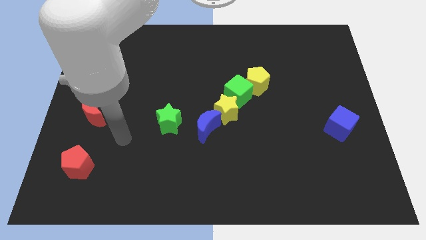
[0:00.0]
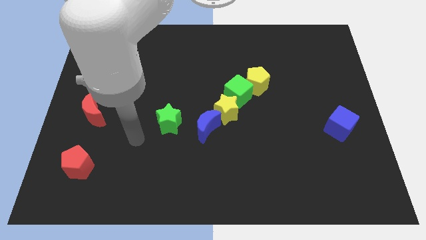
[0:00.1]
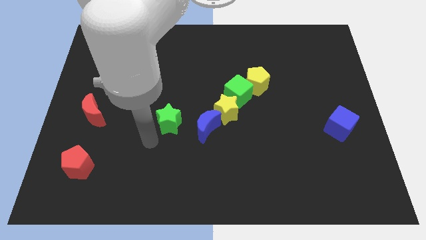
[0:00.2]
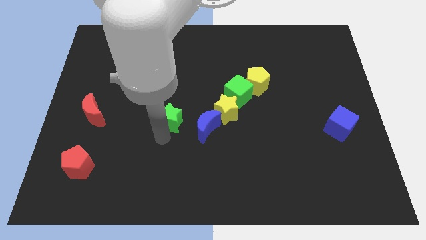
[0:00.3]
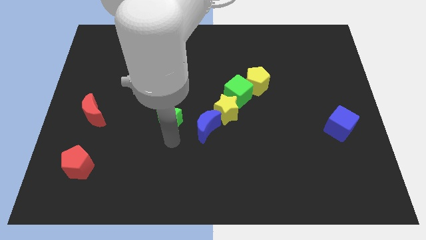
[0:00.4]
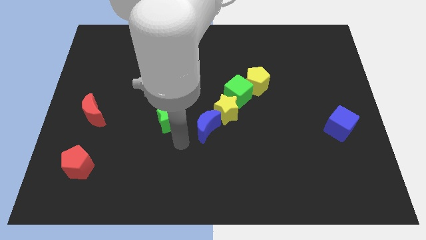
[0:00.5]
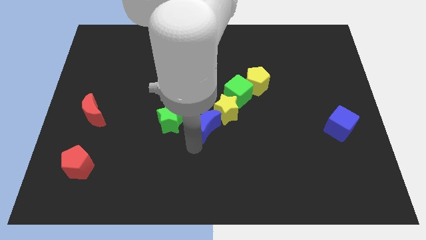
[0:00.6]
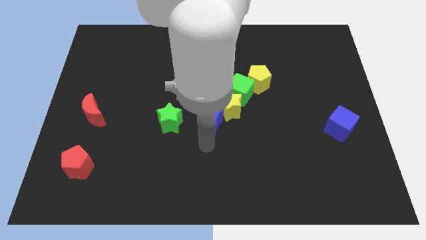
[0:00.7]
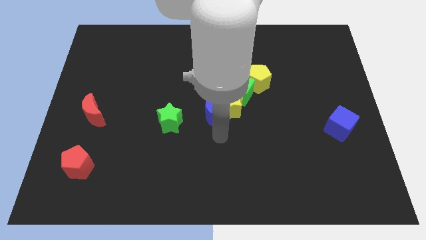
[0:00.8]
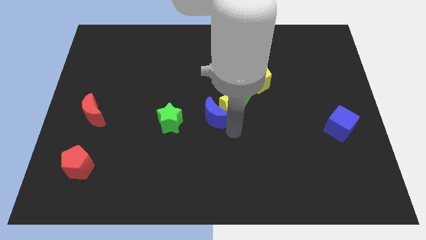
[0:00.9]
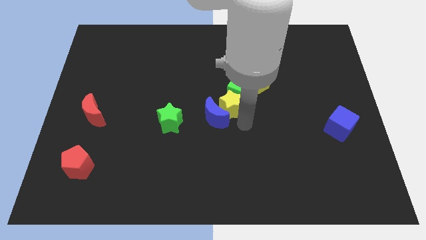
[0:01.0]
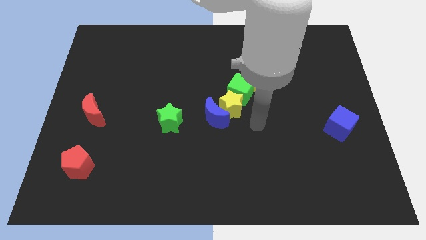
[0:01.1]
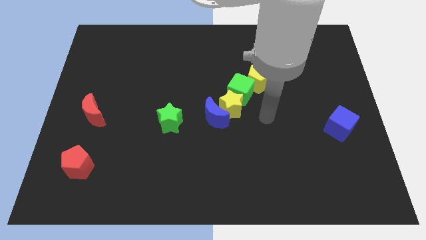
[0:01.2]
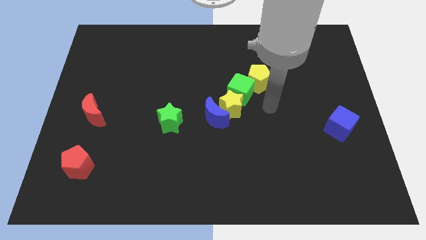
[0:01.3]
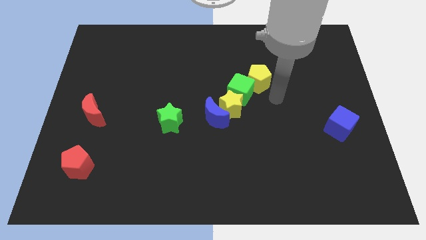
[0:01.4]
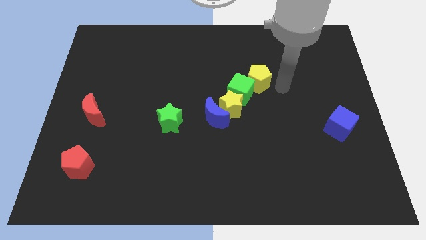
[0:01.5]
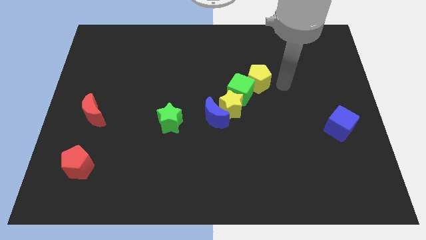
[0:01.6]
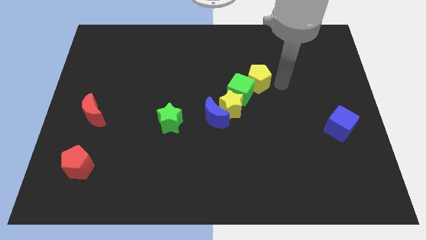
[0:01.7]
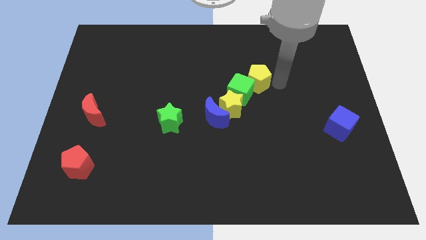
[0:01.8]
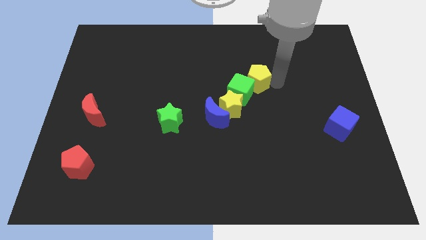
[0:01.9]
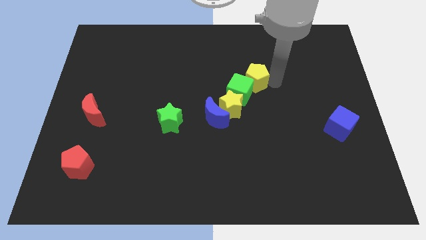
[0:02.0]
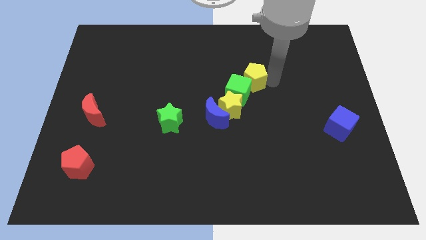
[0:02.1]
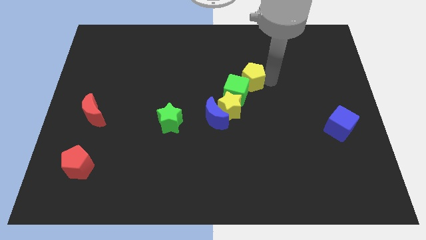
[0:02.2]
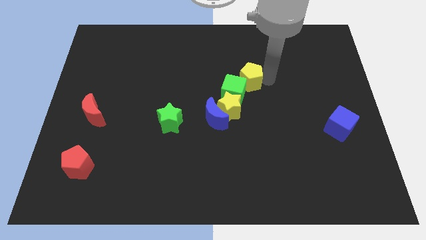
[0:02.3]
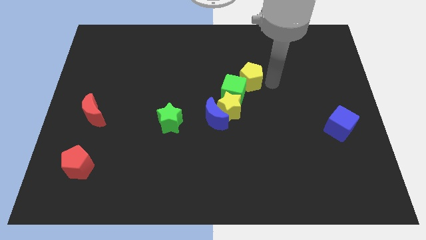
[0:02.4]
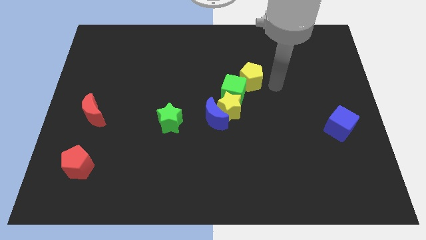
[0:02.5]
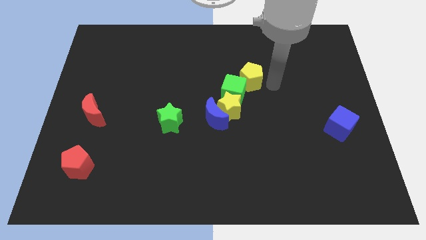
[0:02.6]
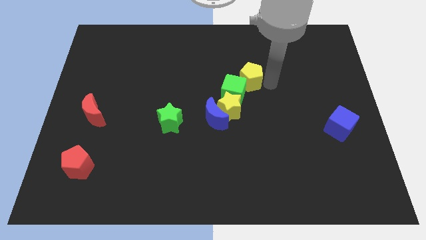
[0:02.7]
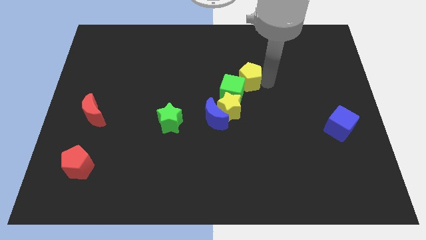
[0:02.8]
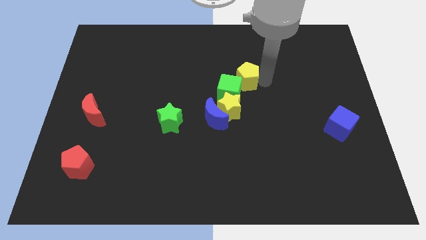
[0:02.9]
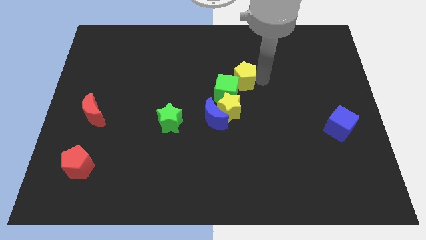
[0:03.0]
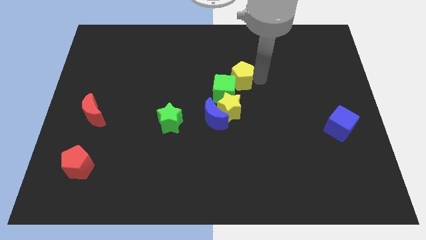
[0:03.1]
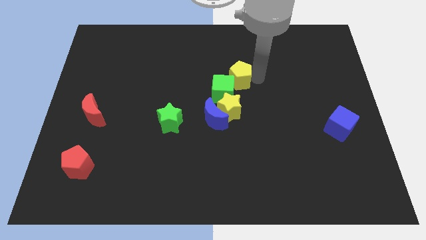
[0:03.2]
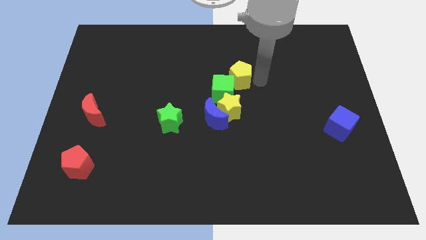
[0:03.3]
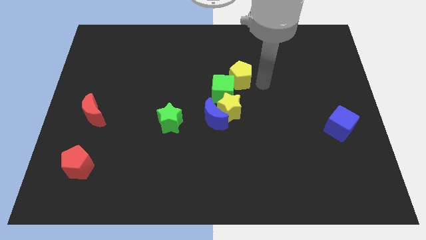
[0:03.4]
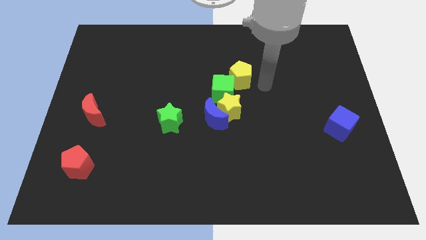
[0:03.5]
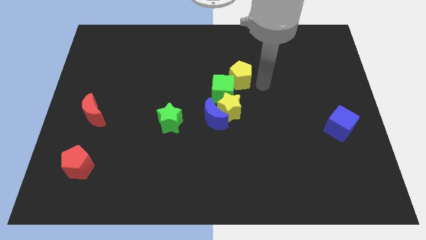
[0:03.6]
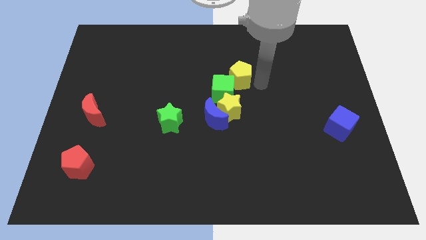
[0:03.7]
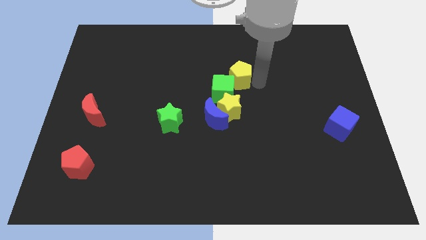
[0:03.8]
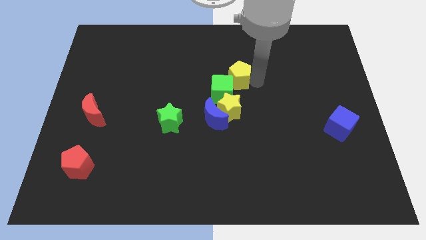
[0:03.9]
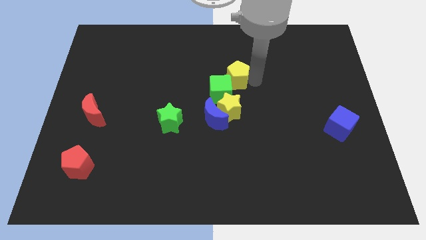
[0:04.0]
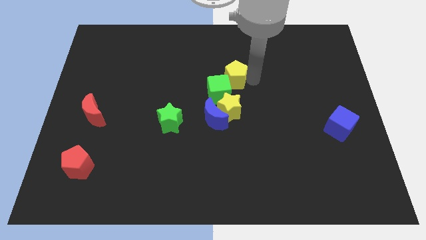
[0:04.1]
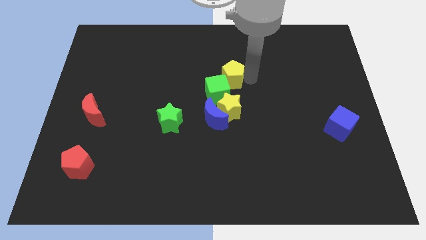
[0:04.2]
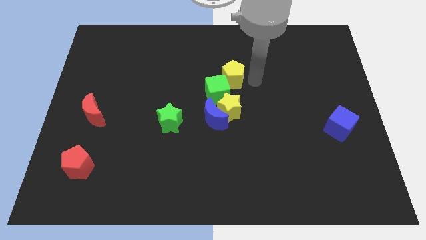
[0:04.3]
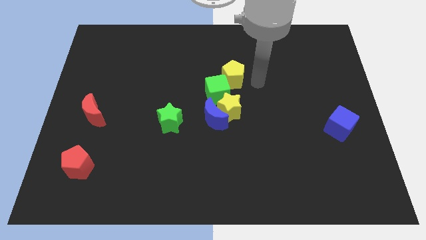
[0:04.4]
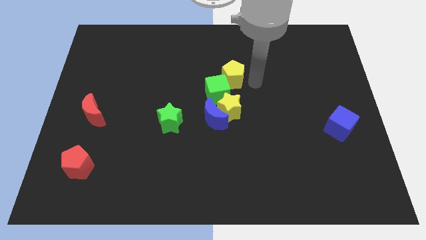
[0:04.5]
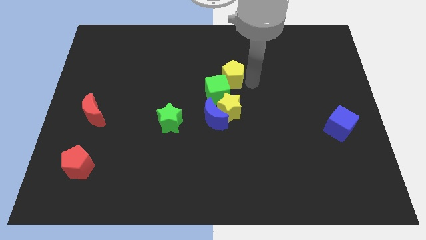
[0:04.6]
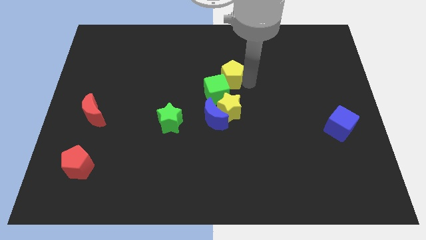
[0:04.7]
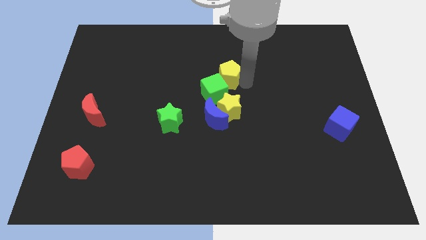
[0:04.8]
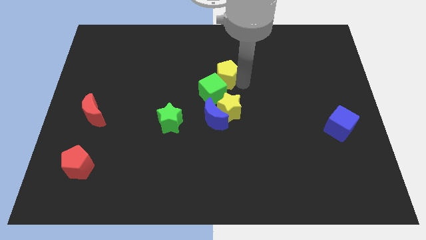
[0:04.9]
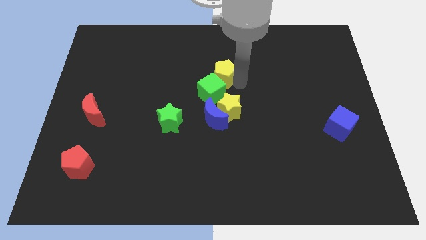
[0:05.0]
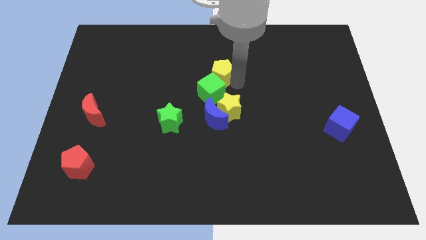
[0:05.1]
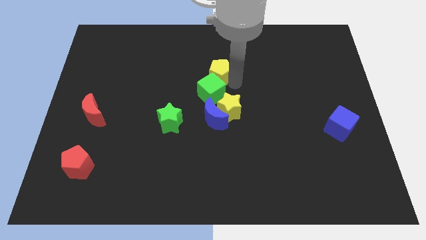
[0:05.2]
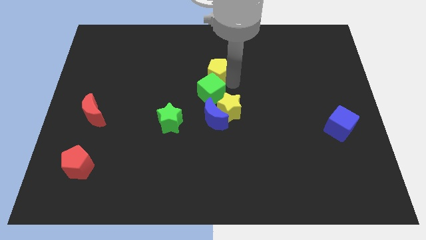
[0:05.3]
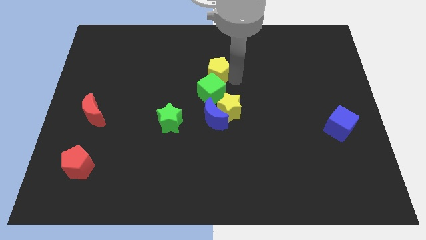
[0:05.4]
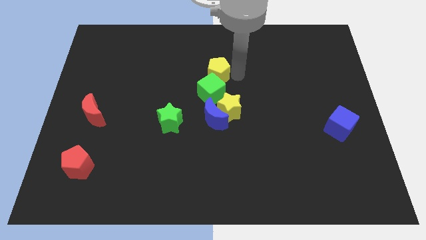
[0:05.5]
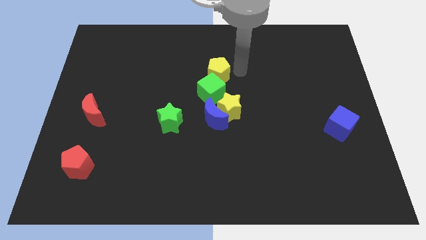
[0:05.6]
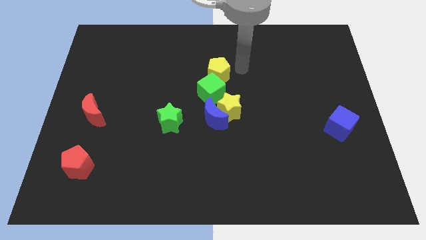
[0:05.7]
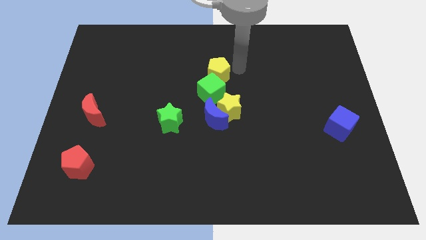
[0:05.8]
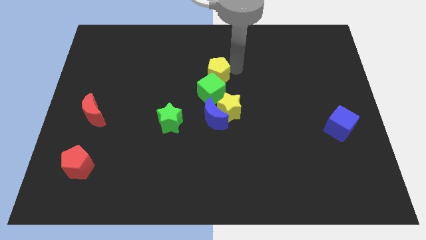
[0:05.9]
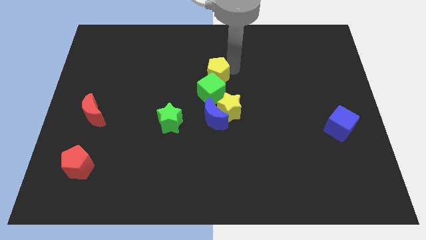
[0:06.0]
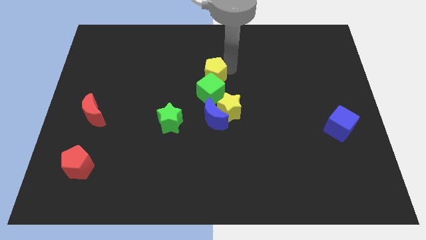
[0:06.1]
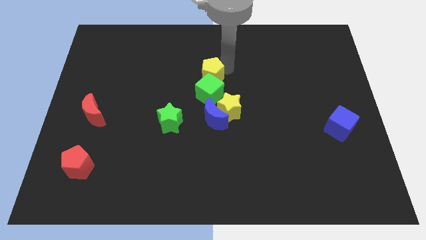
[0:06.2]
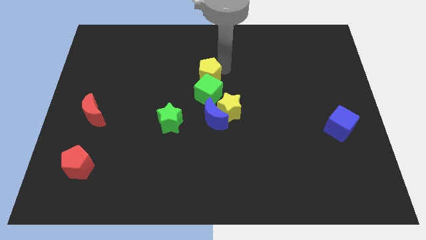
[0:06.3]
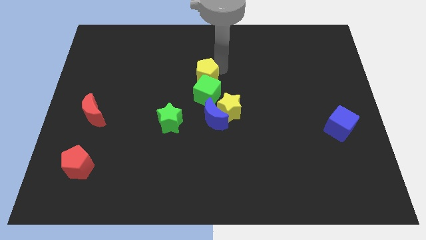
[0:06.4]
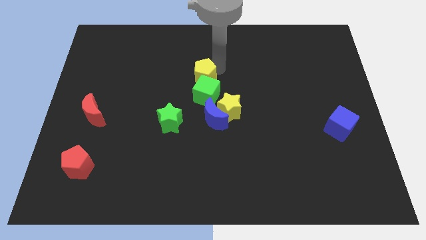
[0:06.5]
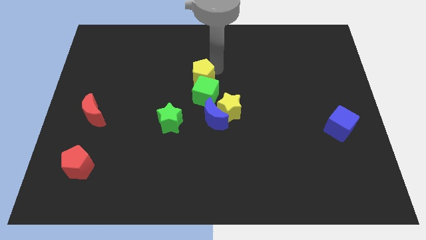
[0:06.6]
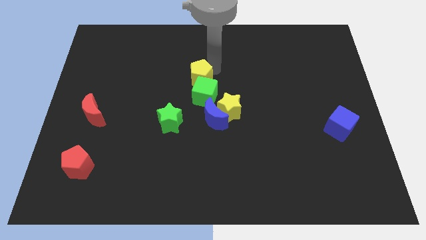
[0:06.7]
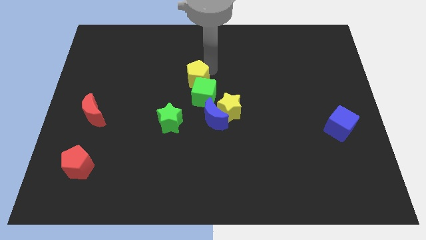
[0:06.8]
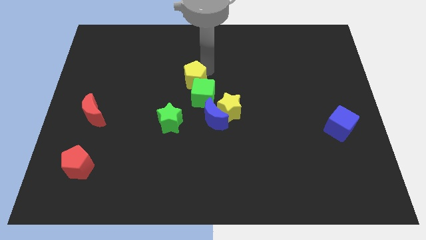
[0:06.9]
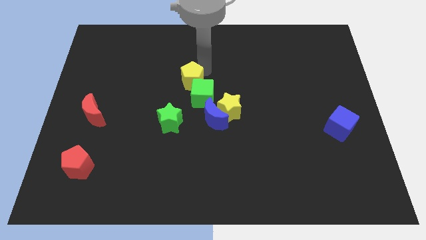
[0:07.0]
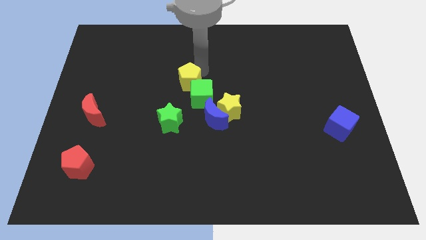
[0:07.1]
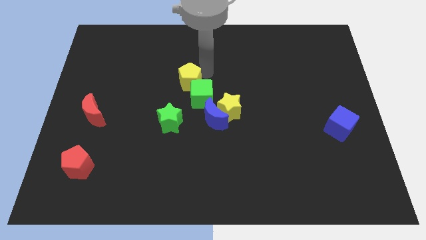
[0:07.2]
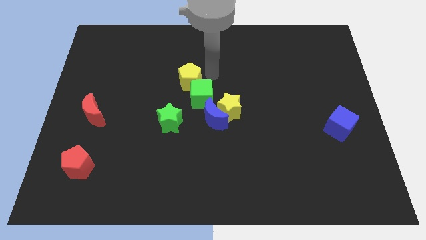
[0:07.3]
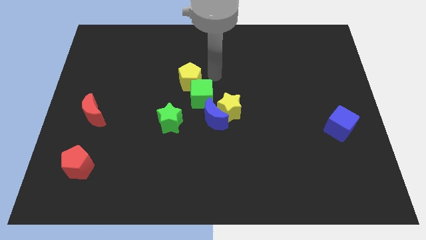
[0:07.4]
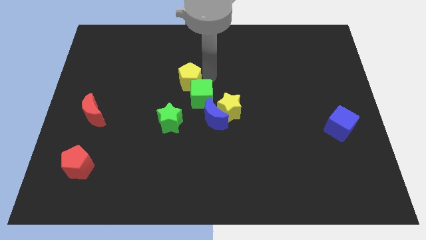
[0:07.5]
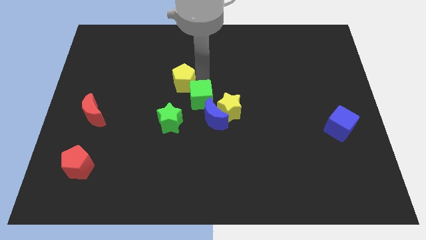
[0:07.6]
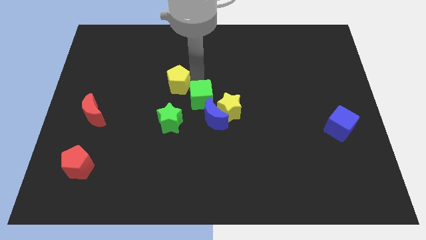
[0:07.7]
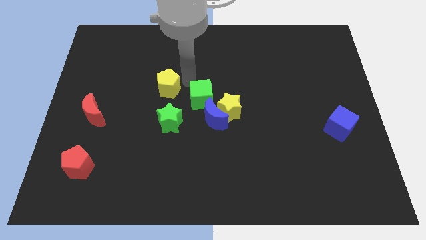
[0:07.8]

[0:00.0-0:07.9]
move the yellow pentagon to the left

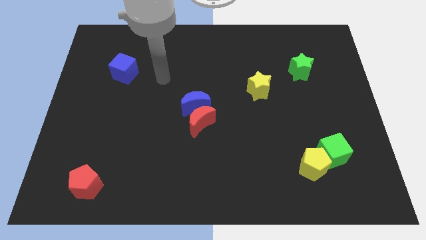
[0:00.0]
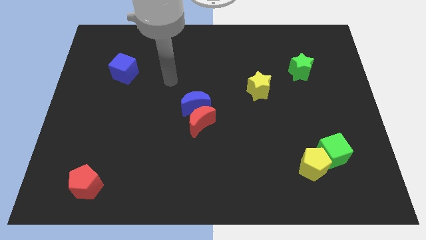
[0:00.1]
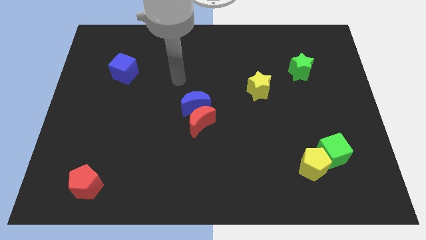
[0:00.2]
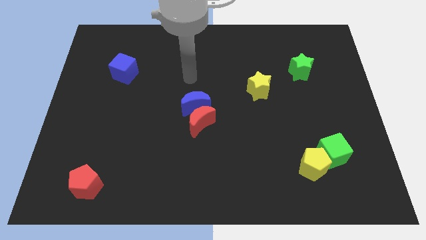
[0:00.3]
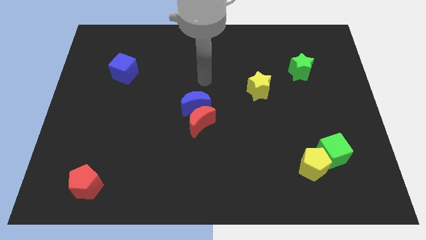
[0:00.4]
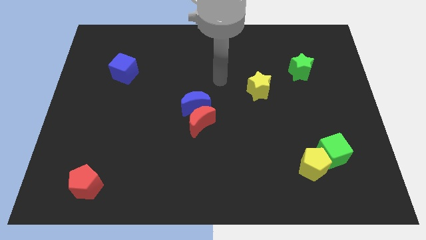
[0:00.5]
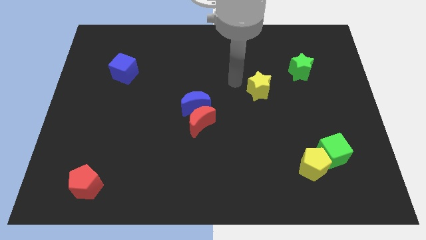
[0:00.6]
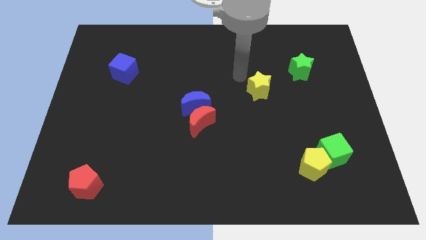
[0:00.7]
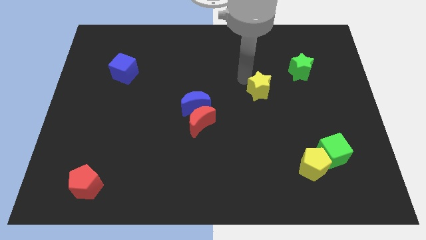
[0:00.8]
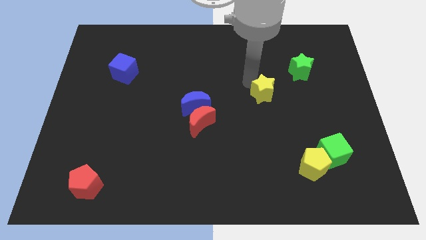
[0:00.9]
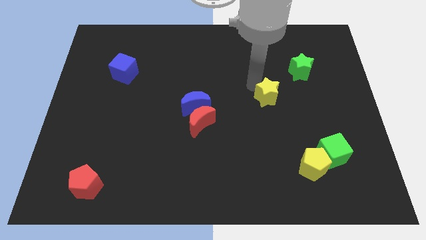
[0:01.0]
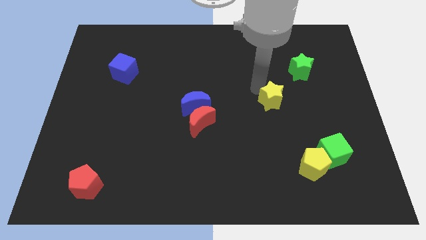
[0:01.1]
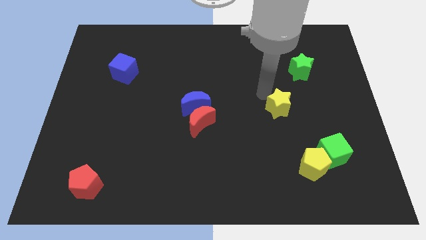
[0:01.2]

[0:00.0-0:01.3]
move the yellow star downwards and right diagonally slightly
